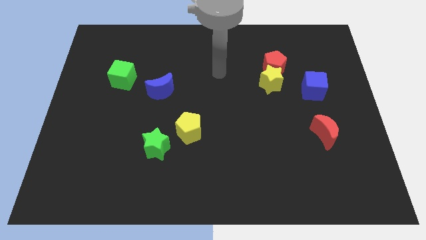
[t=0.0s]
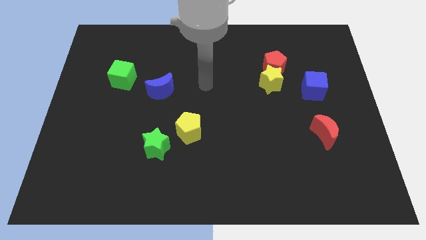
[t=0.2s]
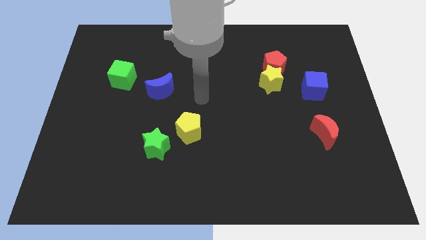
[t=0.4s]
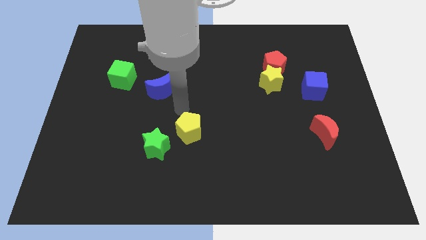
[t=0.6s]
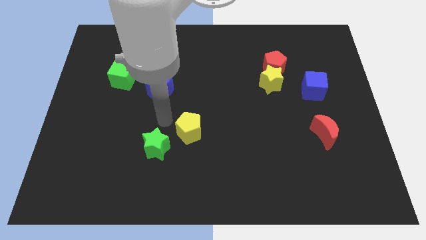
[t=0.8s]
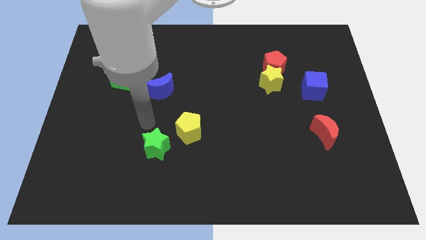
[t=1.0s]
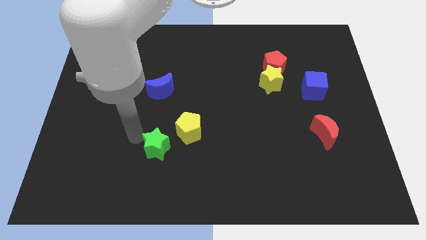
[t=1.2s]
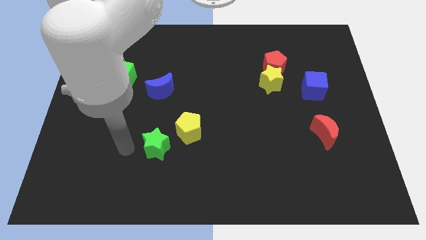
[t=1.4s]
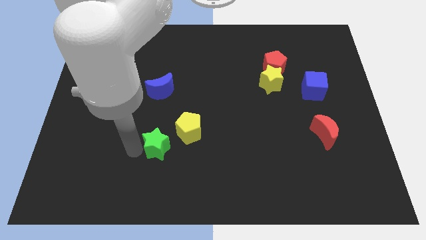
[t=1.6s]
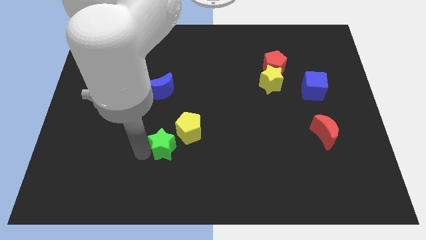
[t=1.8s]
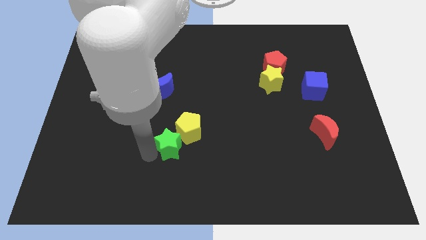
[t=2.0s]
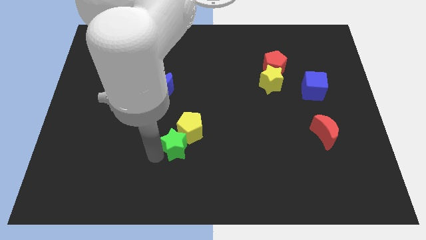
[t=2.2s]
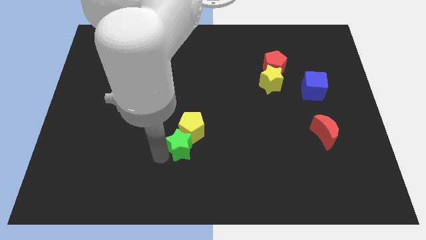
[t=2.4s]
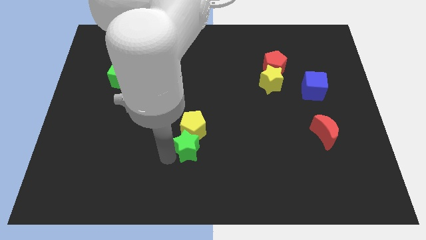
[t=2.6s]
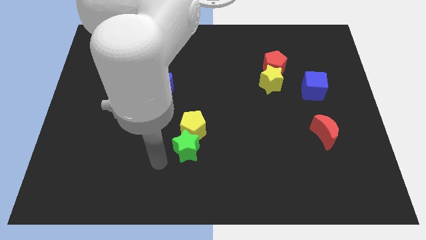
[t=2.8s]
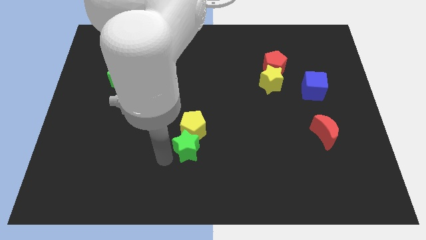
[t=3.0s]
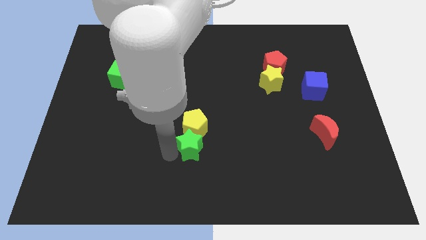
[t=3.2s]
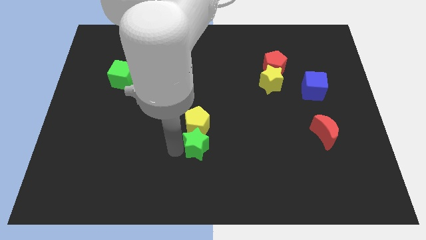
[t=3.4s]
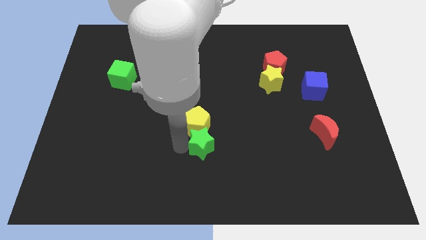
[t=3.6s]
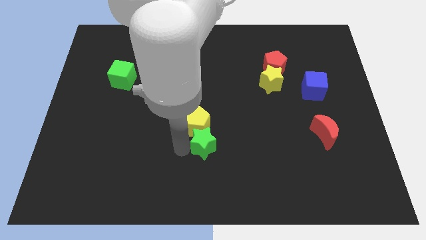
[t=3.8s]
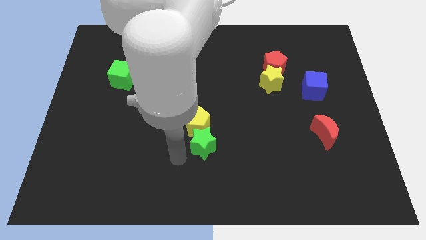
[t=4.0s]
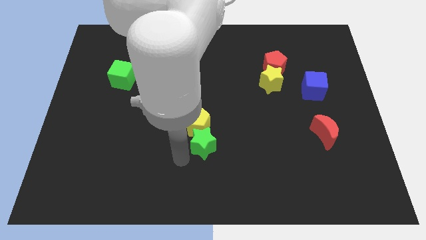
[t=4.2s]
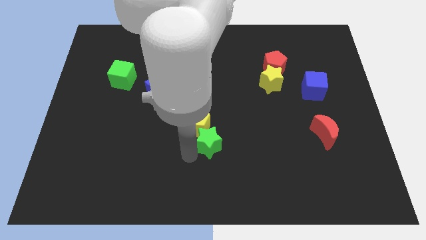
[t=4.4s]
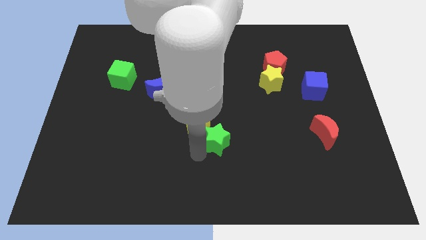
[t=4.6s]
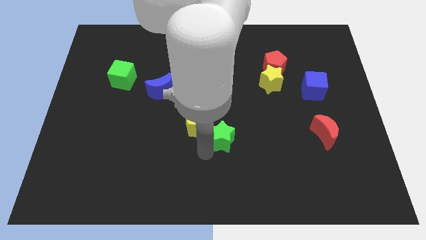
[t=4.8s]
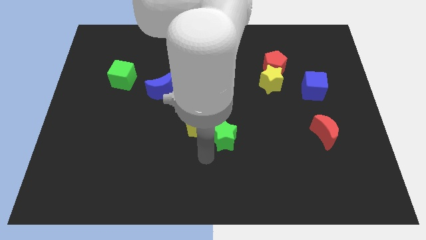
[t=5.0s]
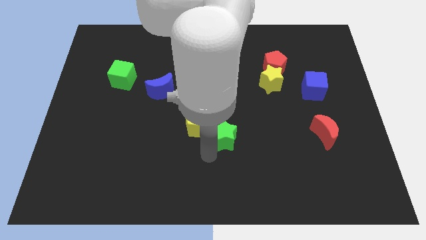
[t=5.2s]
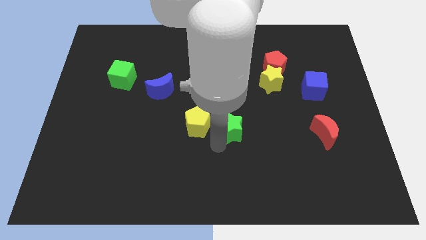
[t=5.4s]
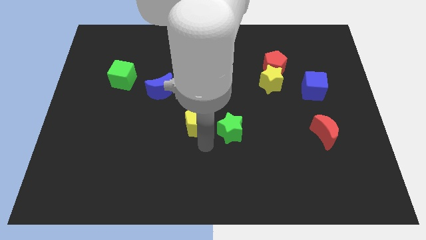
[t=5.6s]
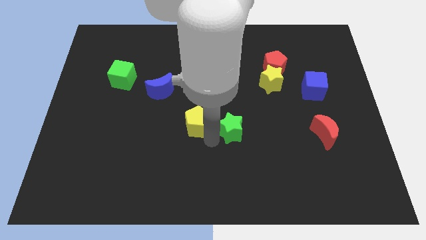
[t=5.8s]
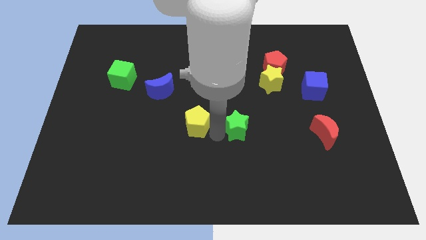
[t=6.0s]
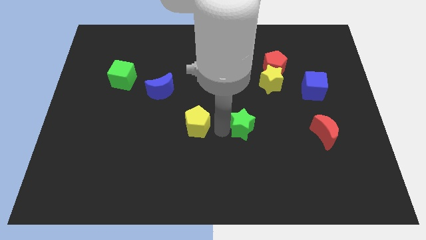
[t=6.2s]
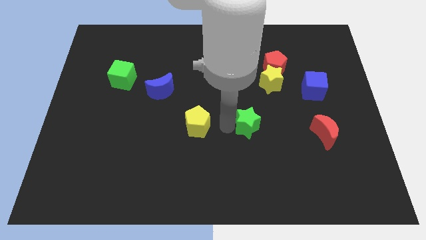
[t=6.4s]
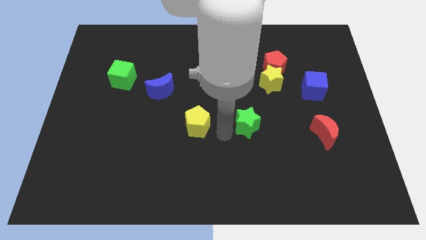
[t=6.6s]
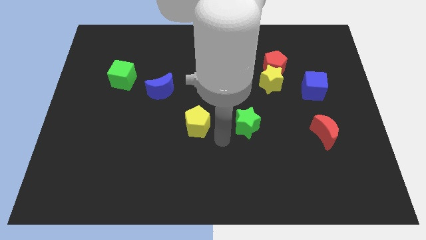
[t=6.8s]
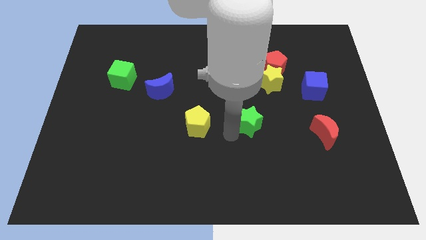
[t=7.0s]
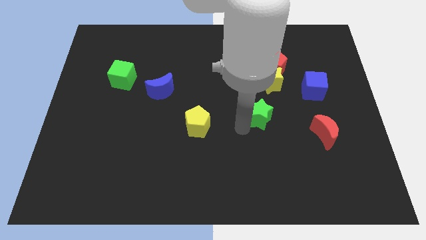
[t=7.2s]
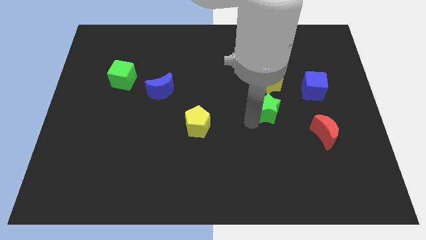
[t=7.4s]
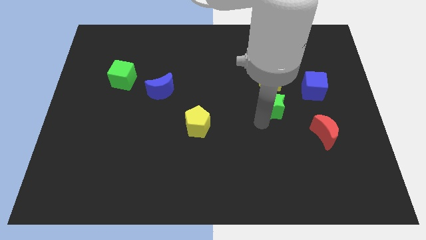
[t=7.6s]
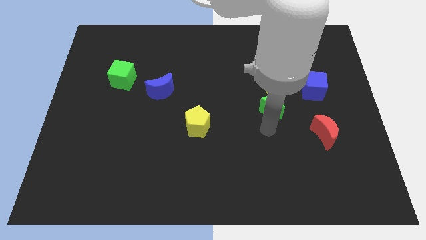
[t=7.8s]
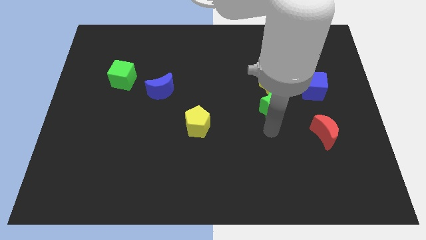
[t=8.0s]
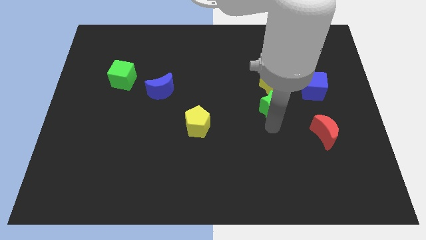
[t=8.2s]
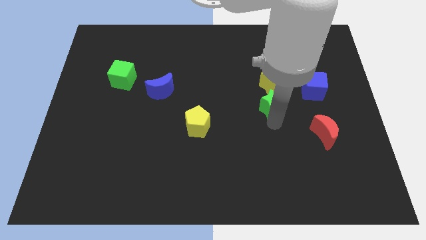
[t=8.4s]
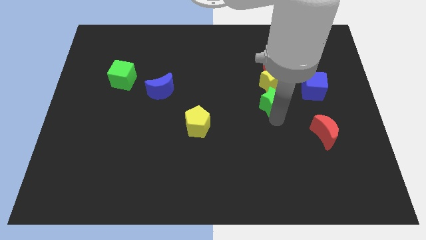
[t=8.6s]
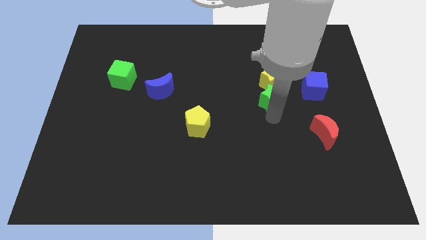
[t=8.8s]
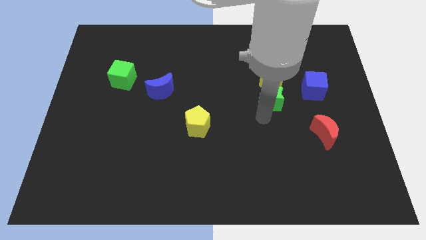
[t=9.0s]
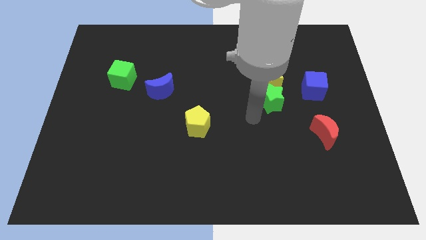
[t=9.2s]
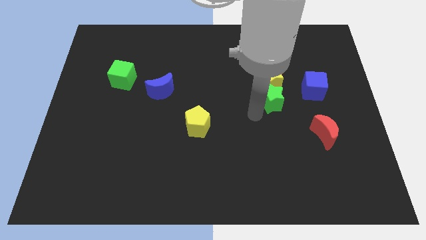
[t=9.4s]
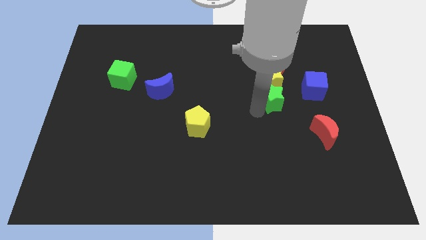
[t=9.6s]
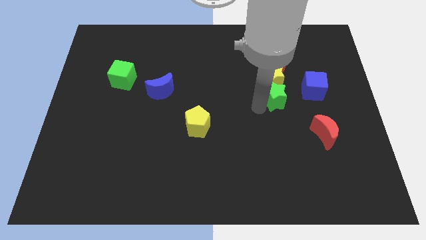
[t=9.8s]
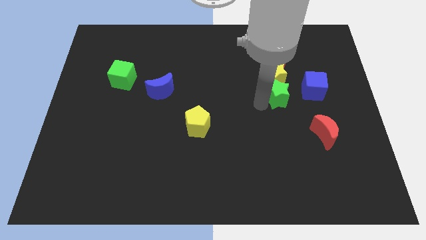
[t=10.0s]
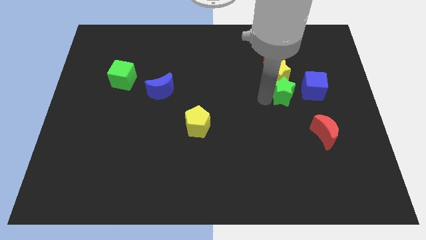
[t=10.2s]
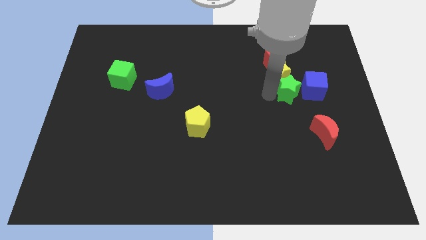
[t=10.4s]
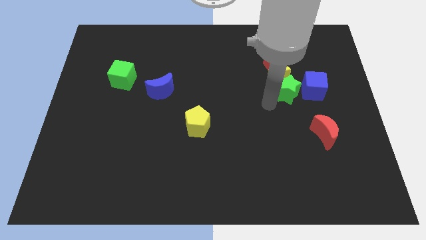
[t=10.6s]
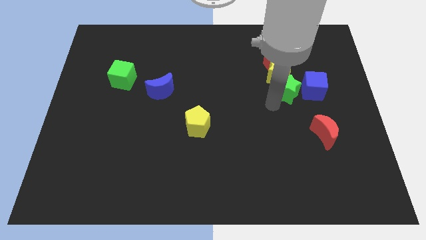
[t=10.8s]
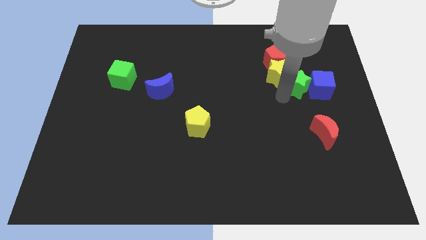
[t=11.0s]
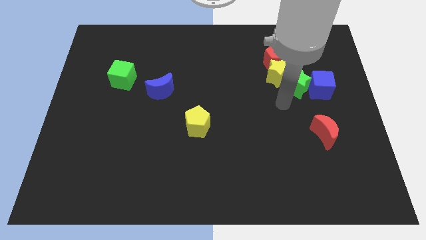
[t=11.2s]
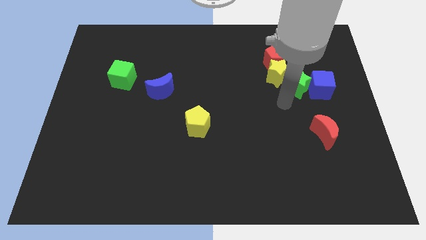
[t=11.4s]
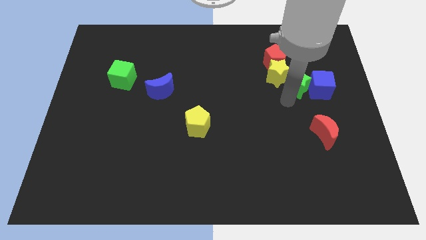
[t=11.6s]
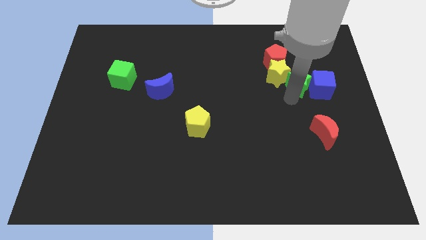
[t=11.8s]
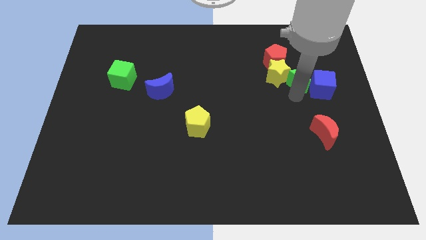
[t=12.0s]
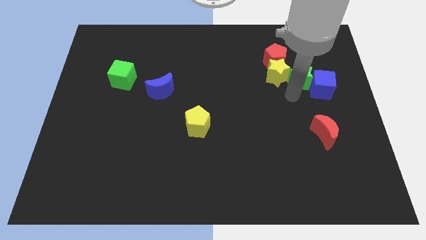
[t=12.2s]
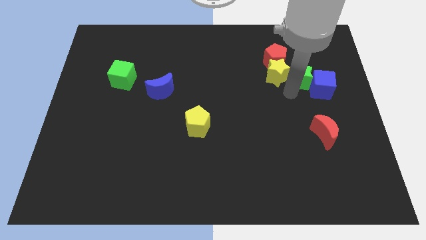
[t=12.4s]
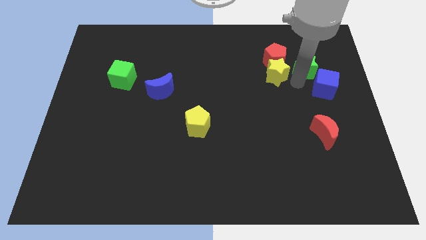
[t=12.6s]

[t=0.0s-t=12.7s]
slide the green star to the right of the red pentagon
